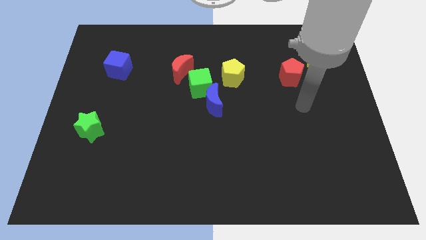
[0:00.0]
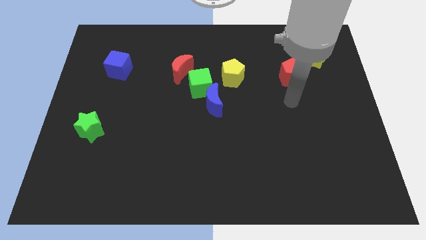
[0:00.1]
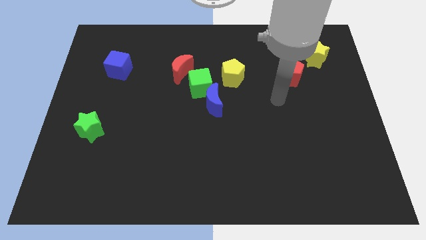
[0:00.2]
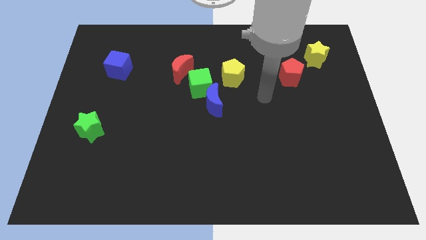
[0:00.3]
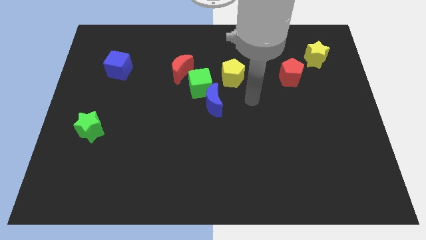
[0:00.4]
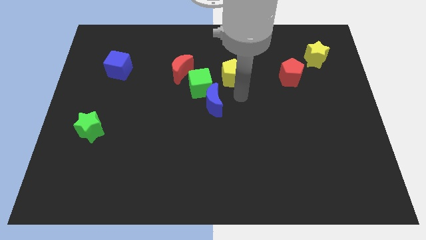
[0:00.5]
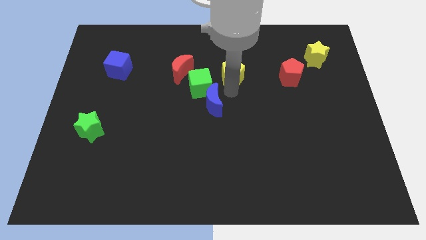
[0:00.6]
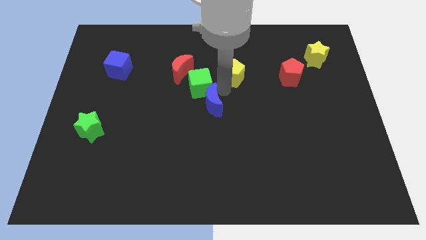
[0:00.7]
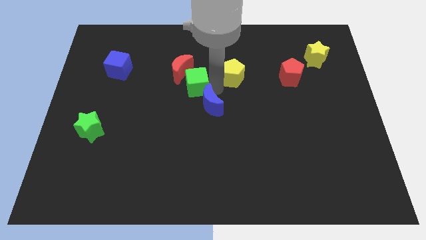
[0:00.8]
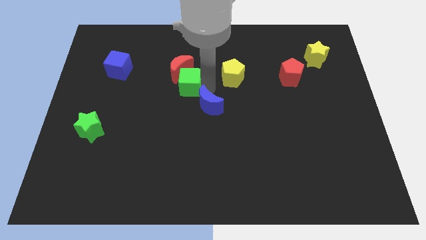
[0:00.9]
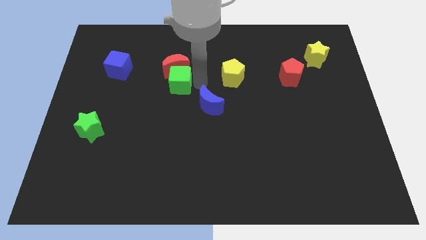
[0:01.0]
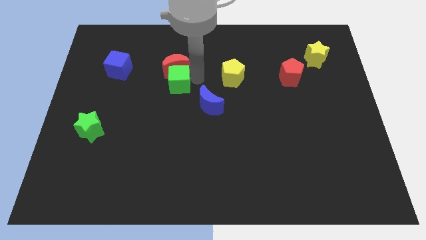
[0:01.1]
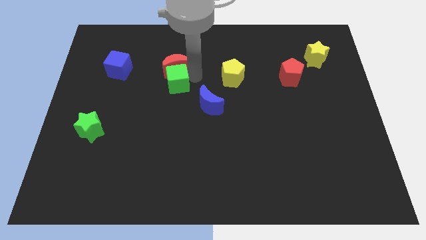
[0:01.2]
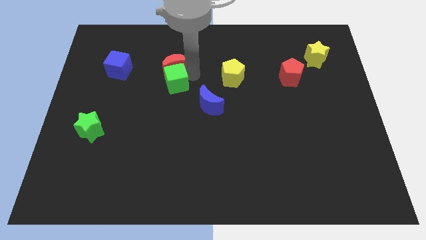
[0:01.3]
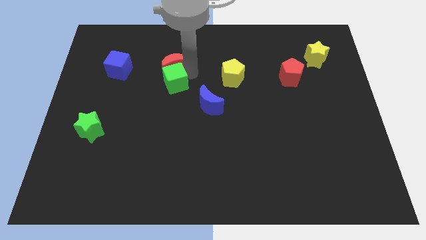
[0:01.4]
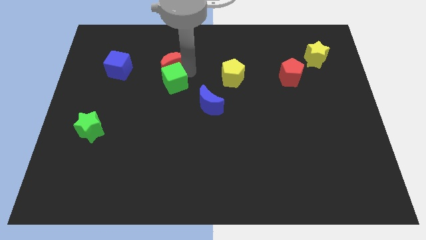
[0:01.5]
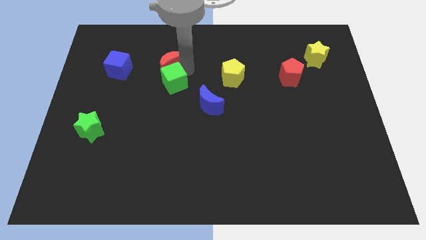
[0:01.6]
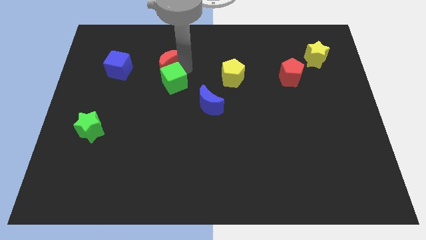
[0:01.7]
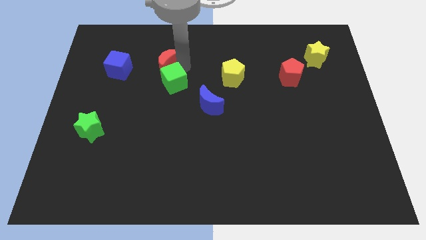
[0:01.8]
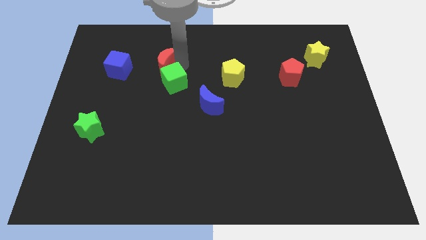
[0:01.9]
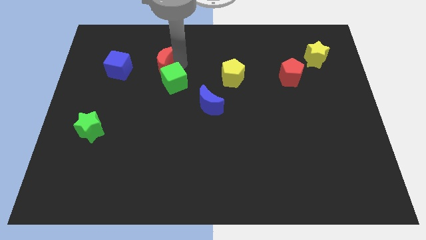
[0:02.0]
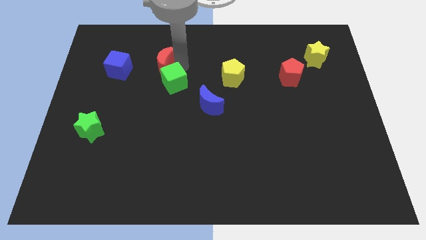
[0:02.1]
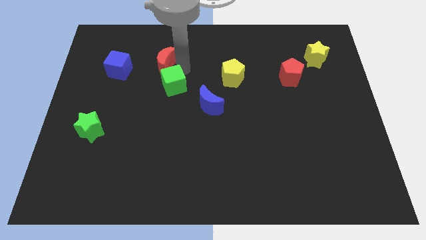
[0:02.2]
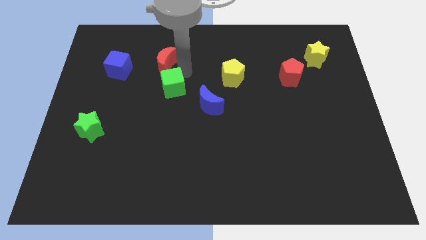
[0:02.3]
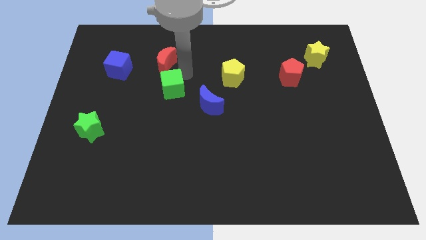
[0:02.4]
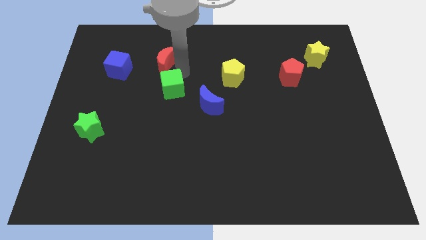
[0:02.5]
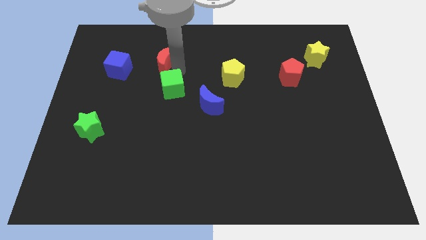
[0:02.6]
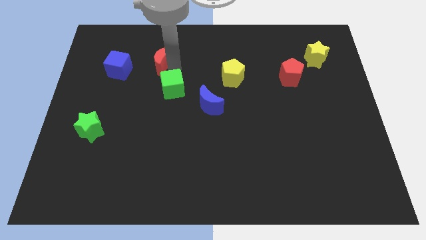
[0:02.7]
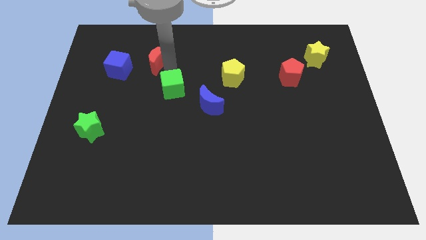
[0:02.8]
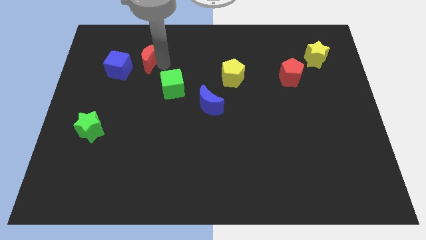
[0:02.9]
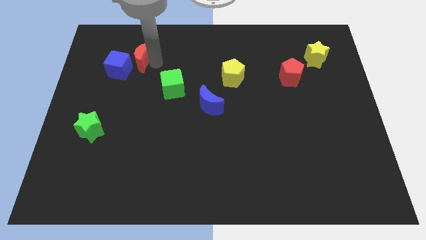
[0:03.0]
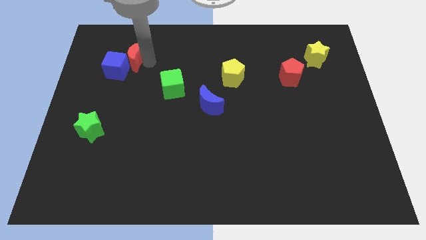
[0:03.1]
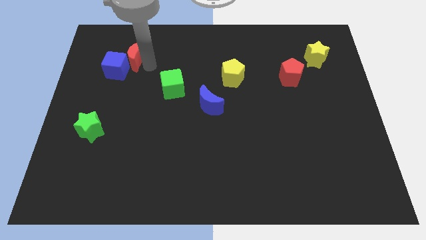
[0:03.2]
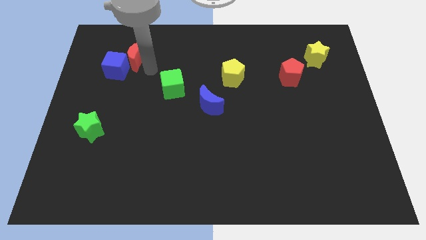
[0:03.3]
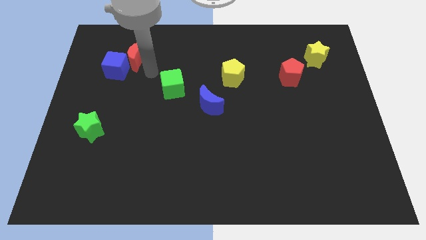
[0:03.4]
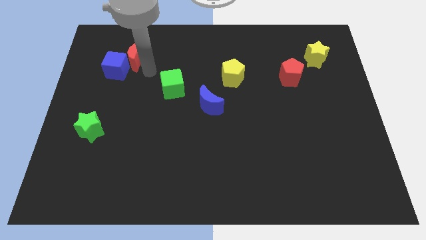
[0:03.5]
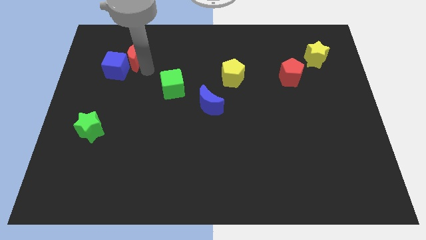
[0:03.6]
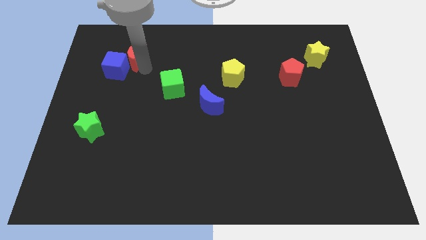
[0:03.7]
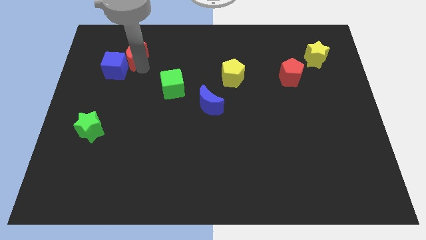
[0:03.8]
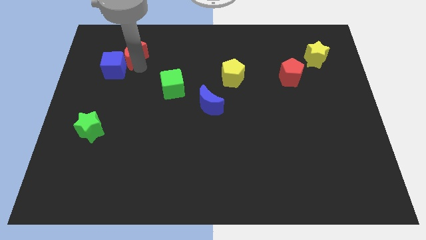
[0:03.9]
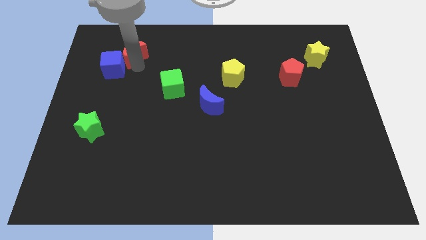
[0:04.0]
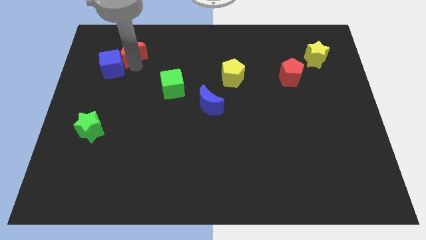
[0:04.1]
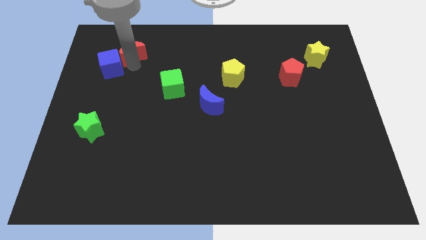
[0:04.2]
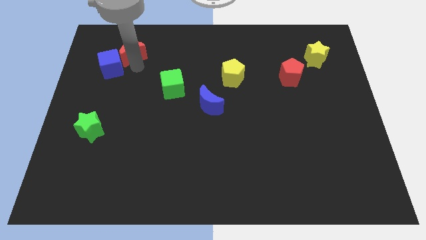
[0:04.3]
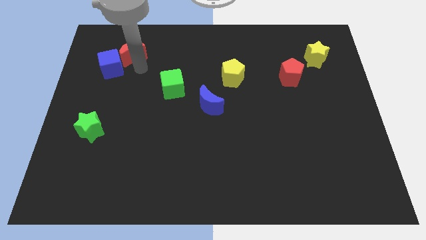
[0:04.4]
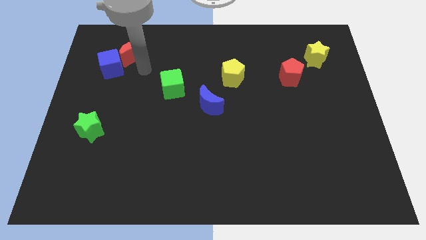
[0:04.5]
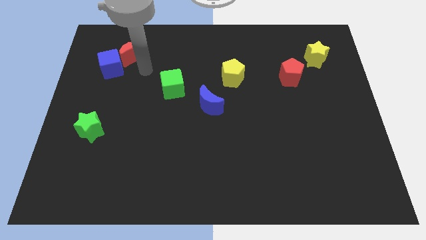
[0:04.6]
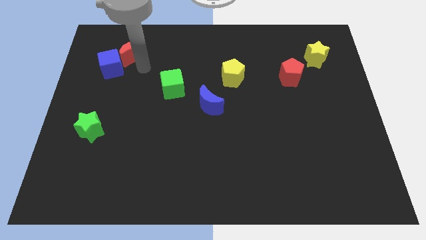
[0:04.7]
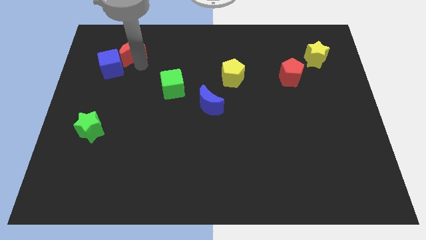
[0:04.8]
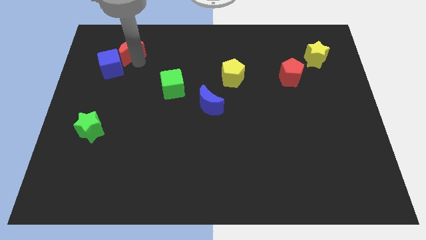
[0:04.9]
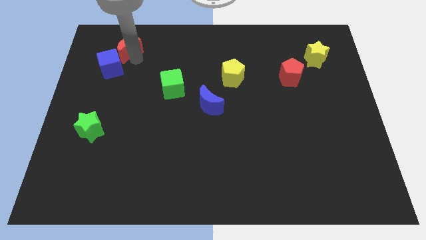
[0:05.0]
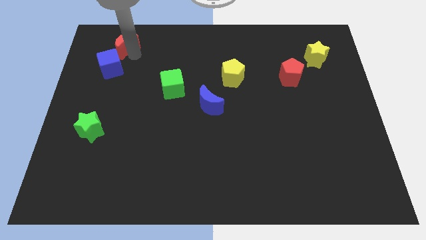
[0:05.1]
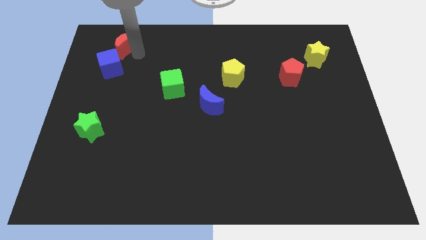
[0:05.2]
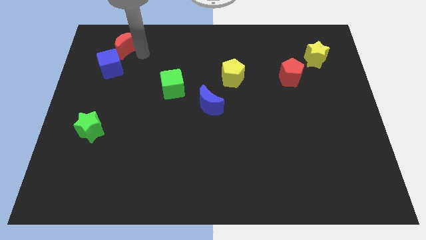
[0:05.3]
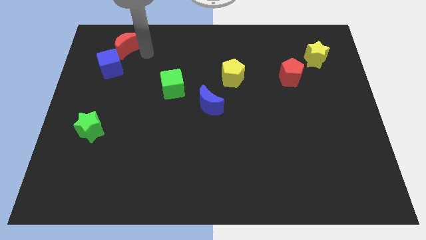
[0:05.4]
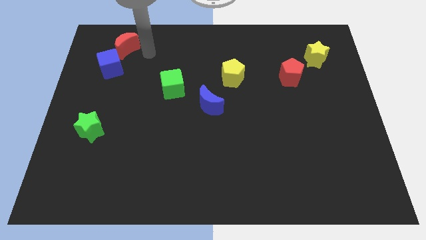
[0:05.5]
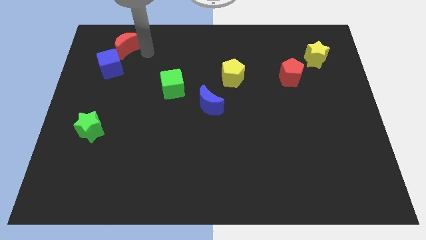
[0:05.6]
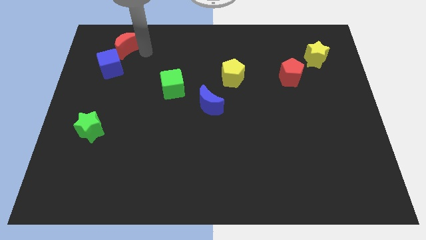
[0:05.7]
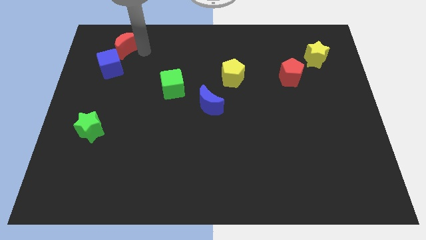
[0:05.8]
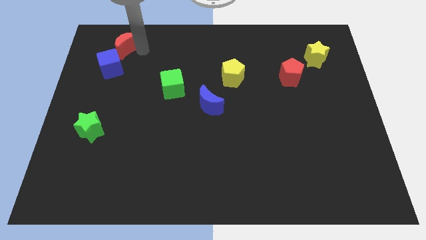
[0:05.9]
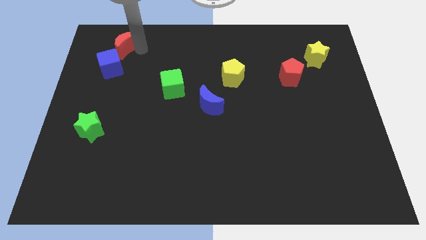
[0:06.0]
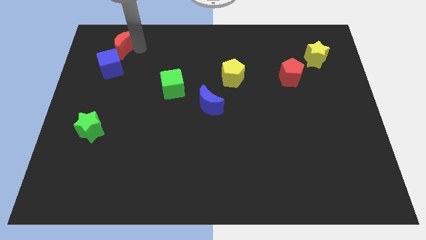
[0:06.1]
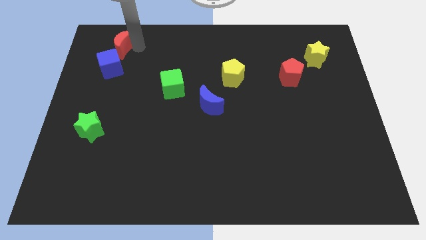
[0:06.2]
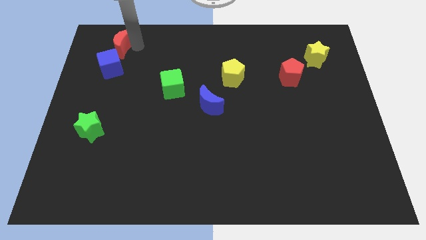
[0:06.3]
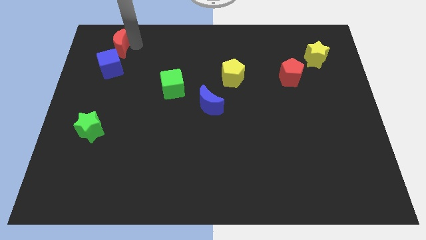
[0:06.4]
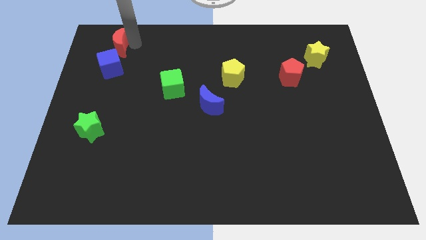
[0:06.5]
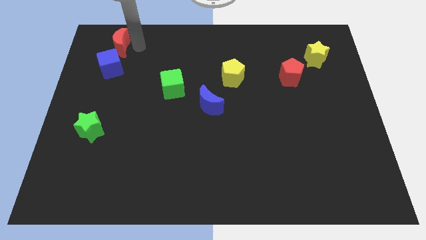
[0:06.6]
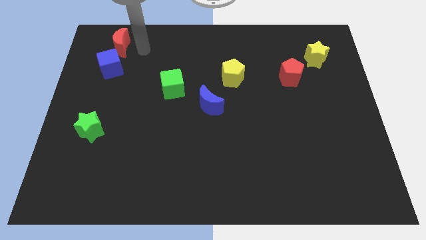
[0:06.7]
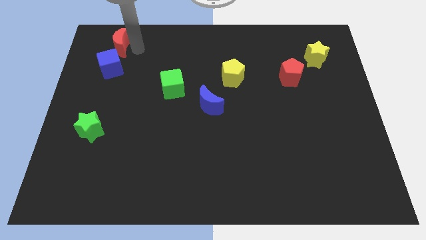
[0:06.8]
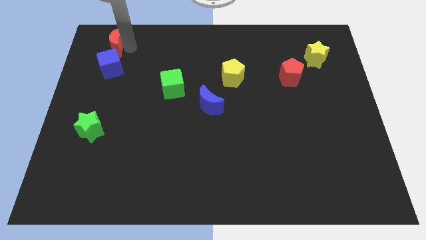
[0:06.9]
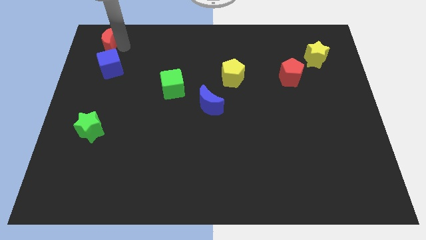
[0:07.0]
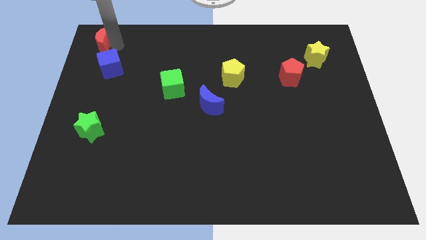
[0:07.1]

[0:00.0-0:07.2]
move the red moon to the top left
